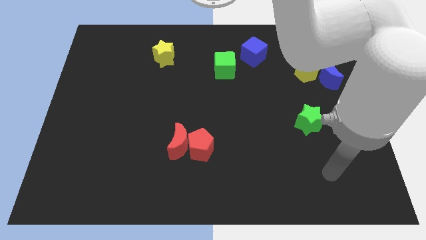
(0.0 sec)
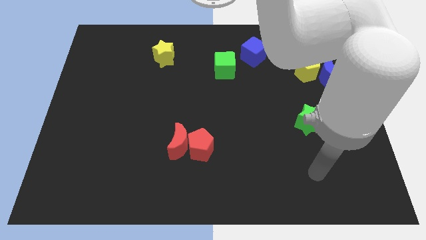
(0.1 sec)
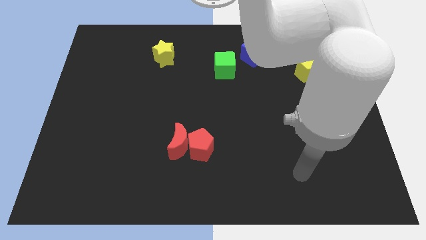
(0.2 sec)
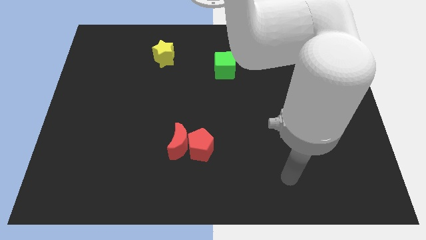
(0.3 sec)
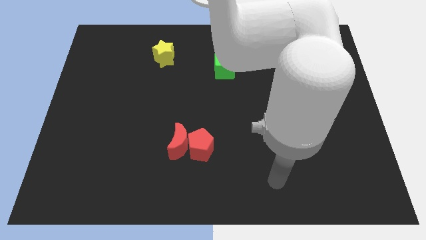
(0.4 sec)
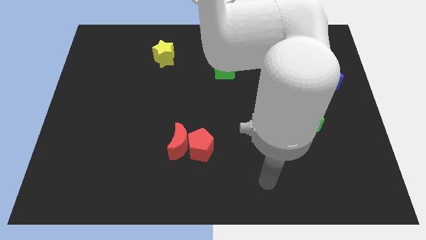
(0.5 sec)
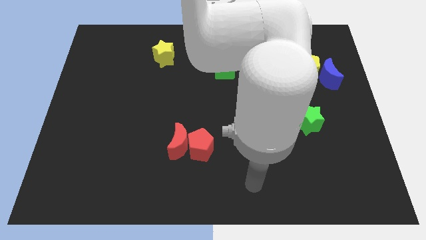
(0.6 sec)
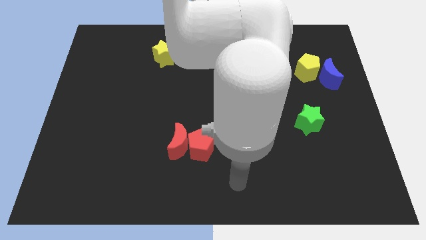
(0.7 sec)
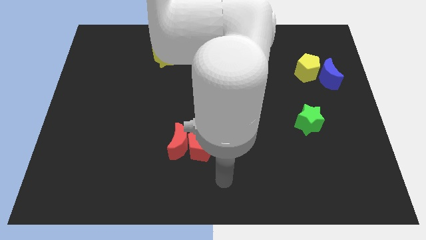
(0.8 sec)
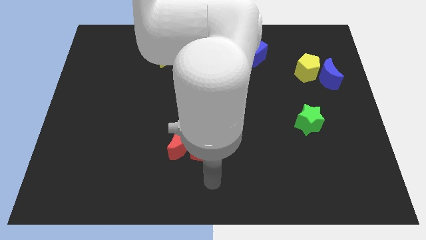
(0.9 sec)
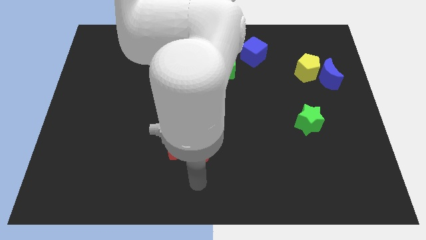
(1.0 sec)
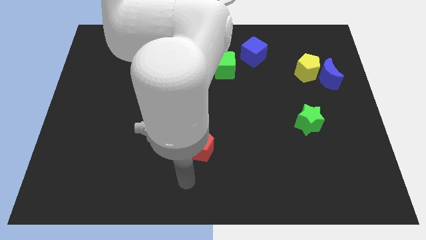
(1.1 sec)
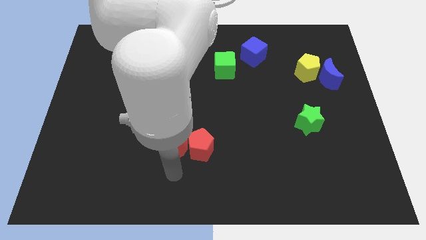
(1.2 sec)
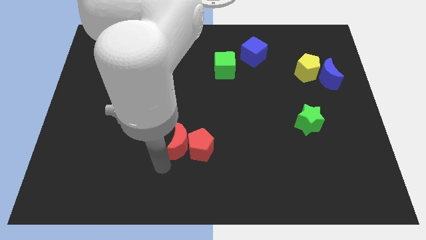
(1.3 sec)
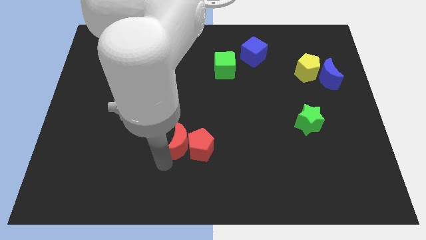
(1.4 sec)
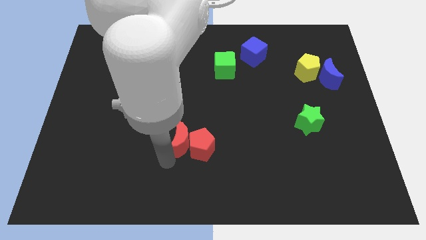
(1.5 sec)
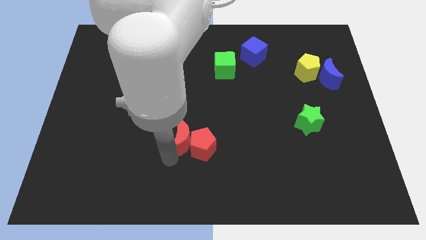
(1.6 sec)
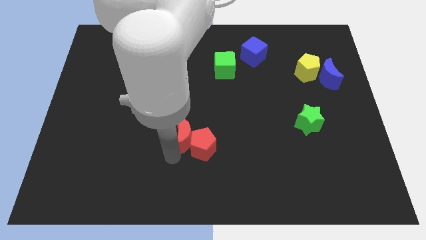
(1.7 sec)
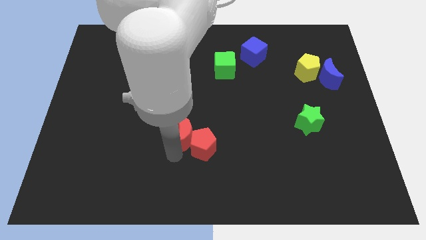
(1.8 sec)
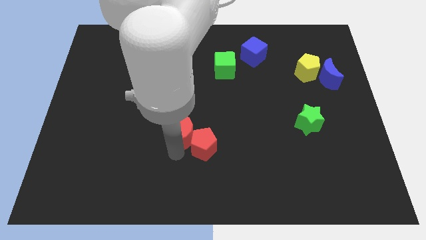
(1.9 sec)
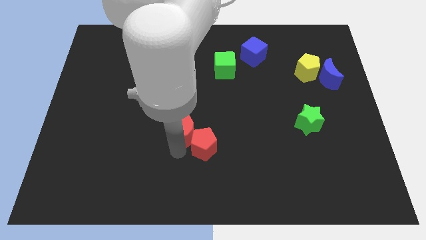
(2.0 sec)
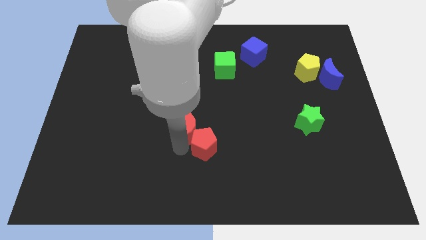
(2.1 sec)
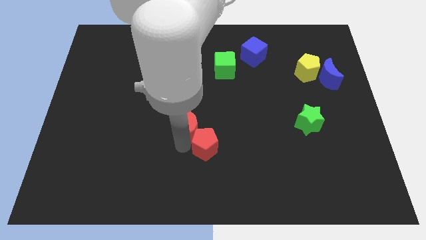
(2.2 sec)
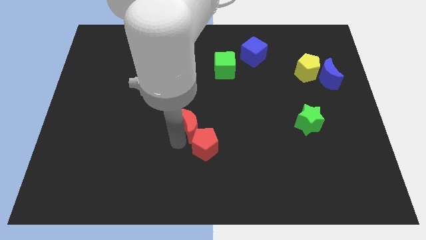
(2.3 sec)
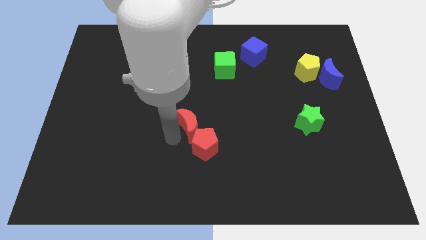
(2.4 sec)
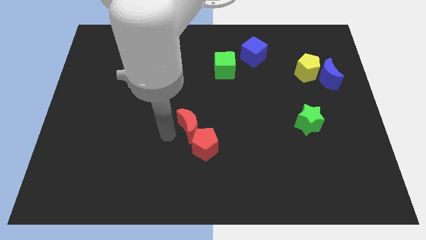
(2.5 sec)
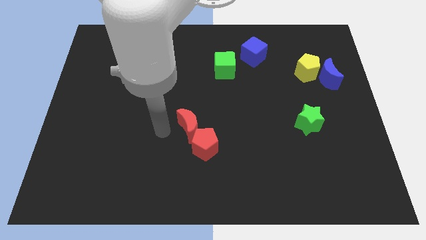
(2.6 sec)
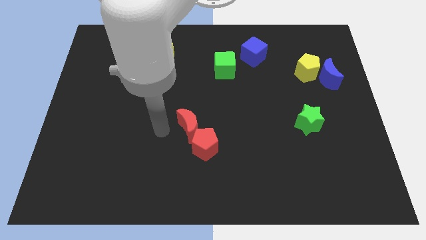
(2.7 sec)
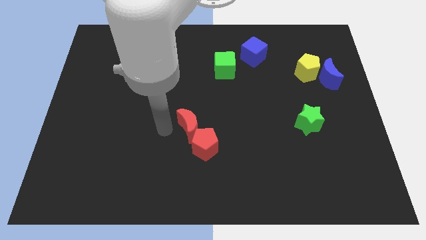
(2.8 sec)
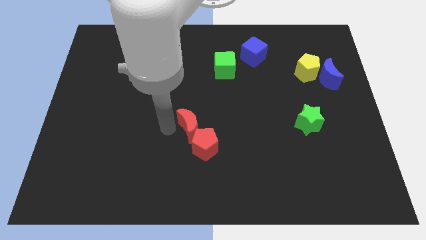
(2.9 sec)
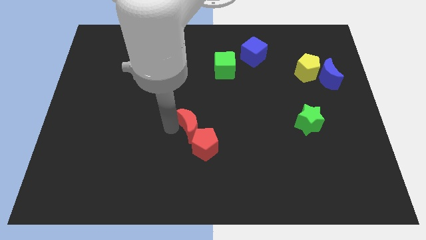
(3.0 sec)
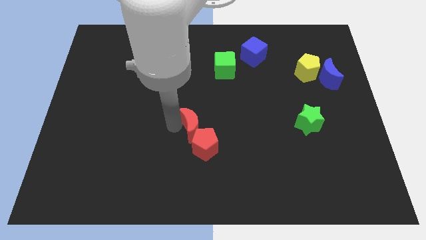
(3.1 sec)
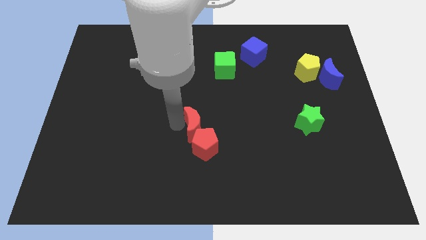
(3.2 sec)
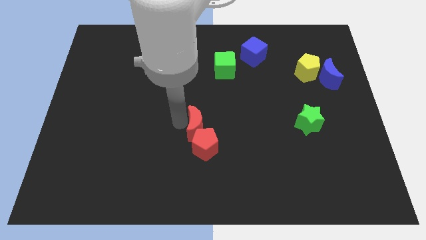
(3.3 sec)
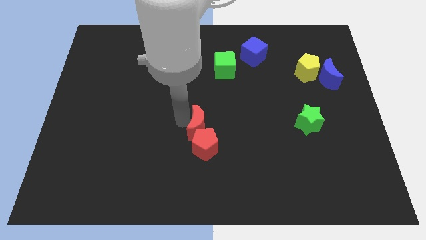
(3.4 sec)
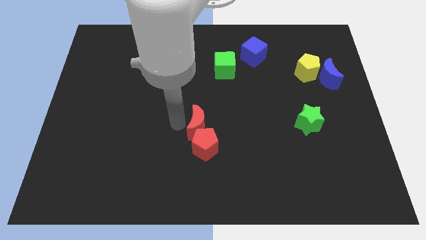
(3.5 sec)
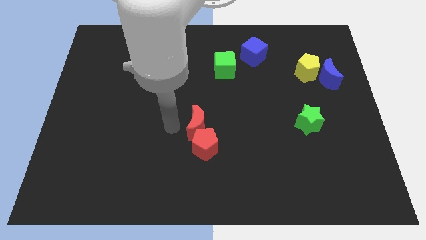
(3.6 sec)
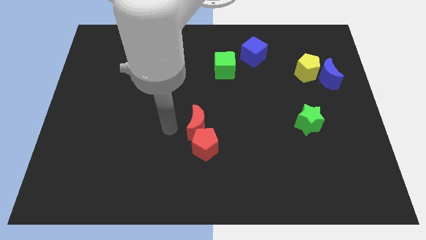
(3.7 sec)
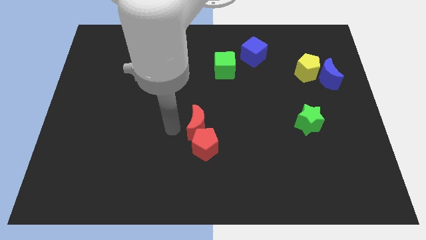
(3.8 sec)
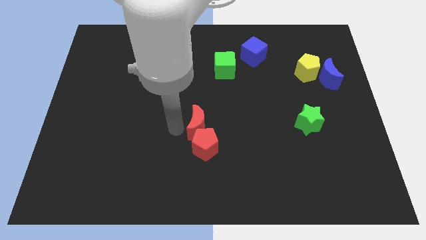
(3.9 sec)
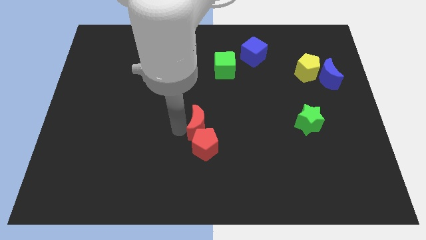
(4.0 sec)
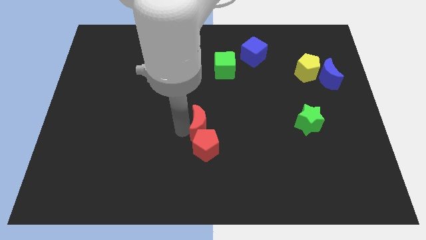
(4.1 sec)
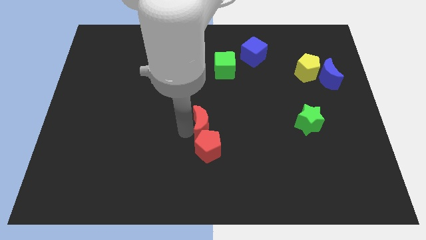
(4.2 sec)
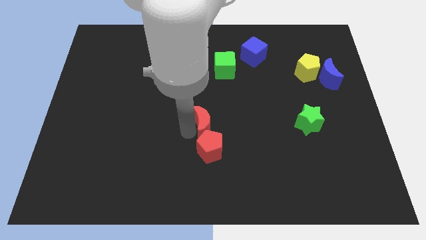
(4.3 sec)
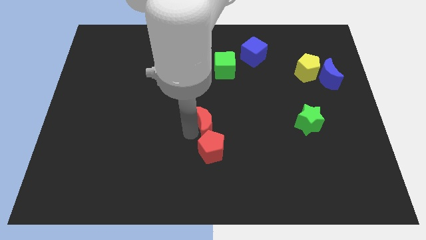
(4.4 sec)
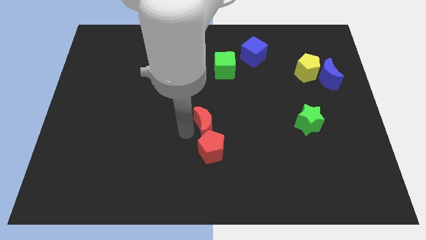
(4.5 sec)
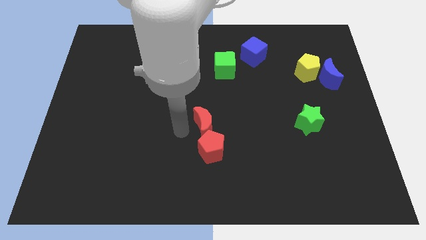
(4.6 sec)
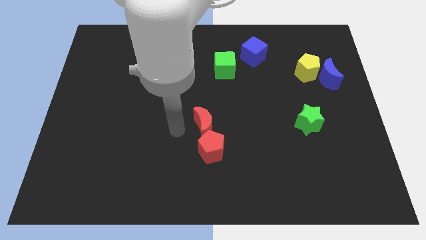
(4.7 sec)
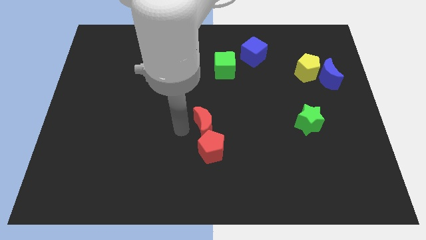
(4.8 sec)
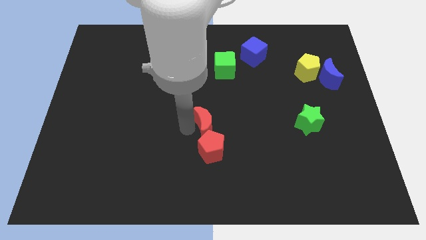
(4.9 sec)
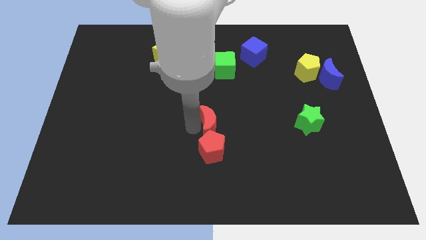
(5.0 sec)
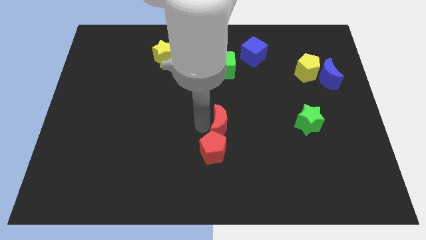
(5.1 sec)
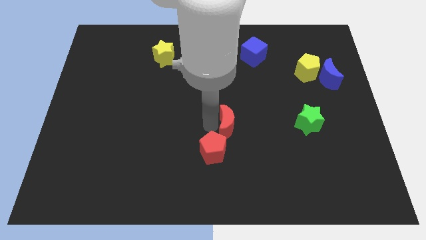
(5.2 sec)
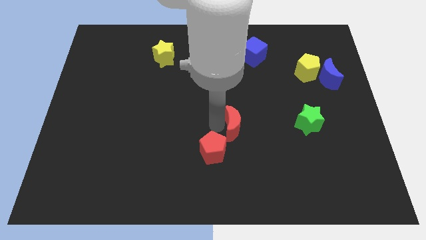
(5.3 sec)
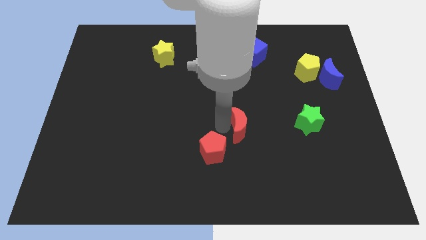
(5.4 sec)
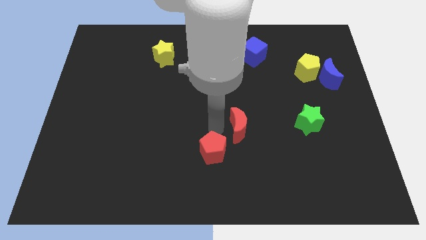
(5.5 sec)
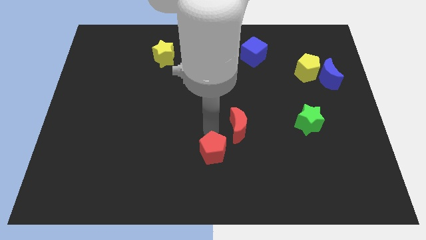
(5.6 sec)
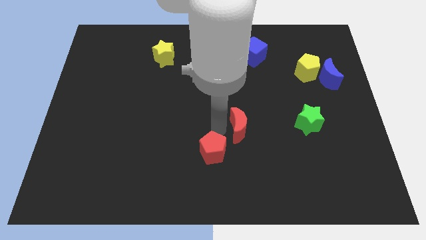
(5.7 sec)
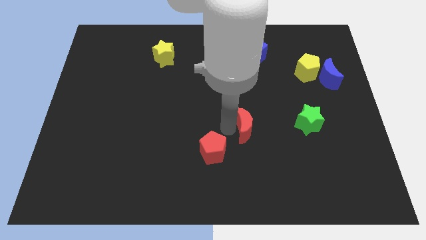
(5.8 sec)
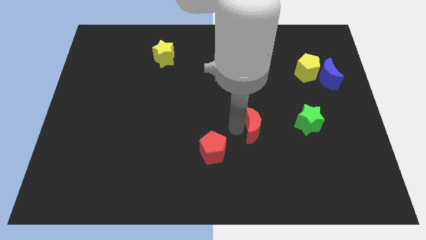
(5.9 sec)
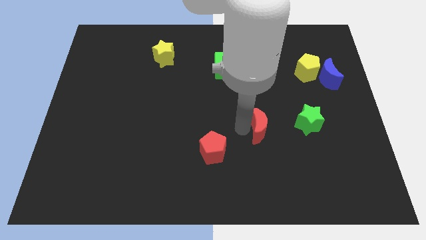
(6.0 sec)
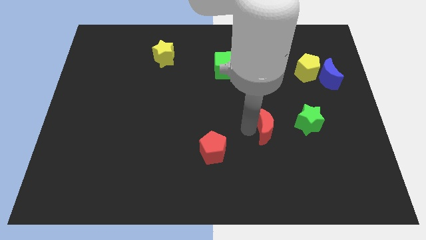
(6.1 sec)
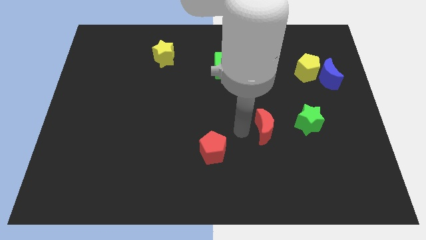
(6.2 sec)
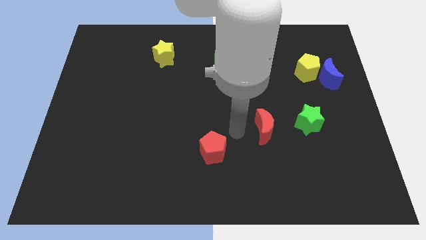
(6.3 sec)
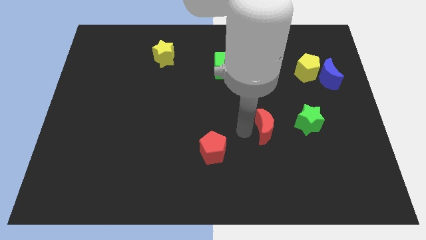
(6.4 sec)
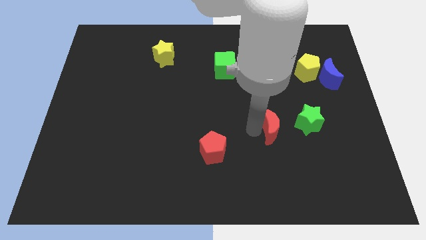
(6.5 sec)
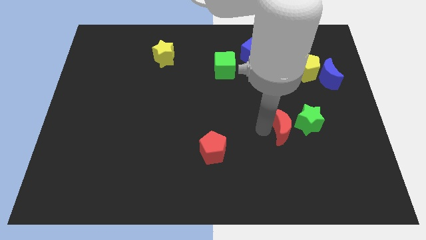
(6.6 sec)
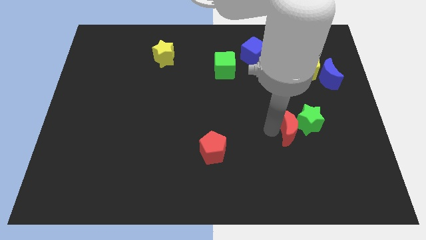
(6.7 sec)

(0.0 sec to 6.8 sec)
push the red moon close to the green star
